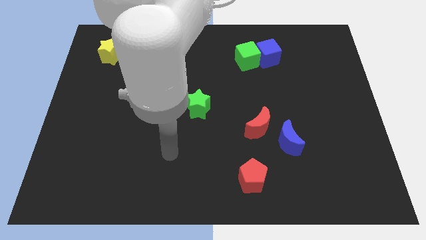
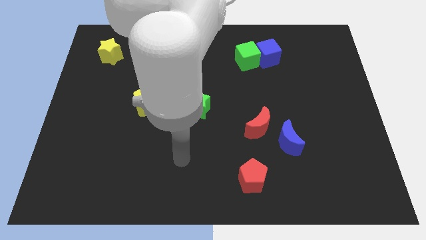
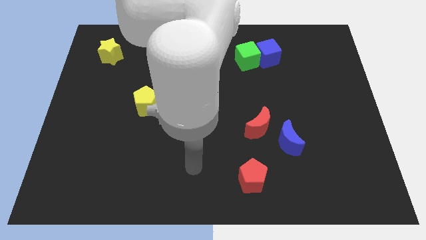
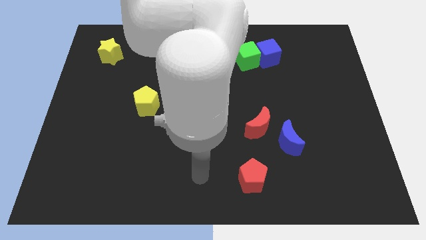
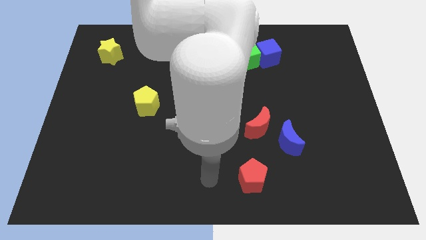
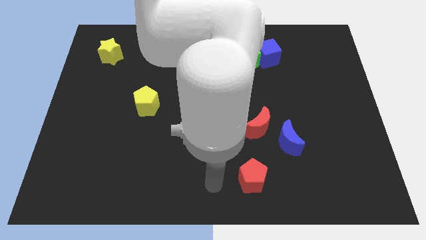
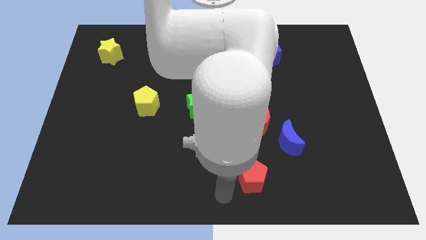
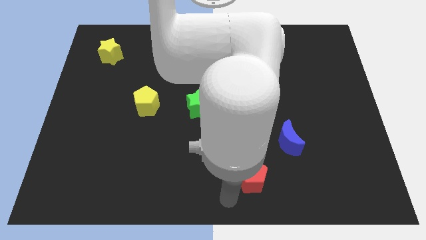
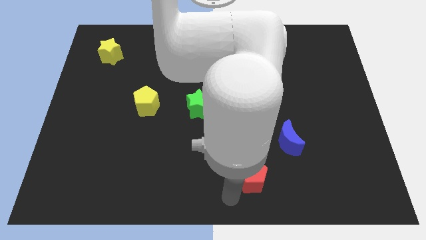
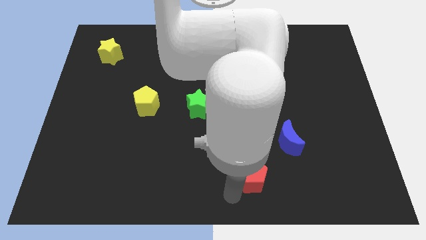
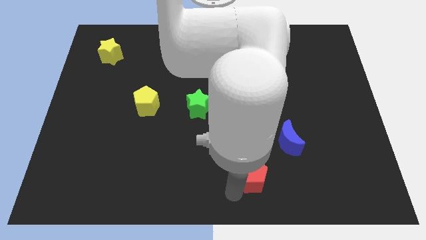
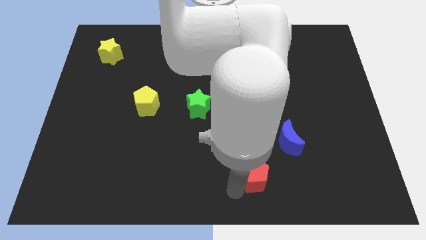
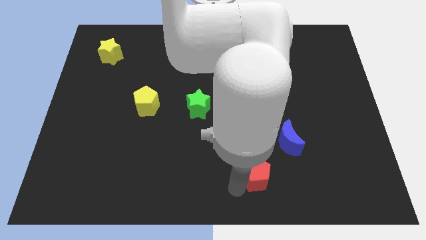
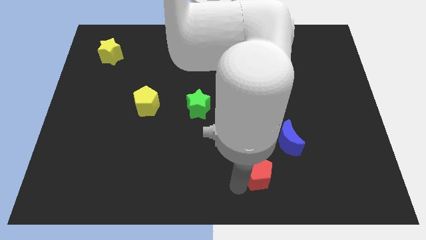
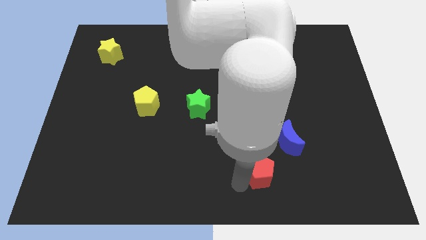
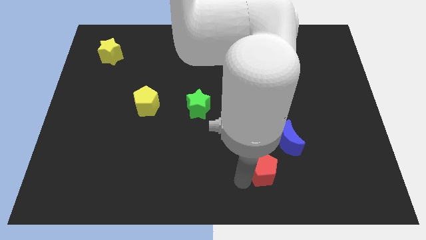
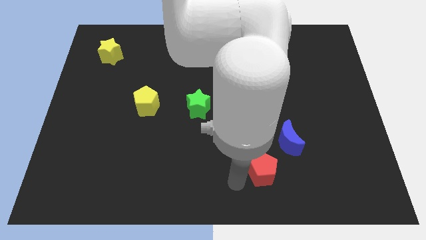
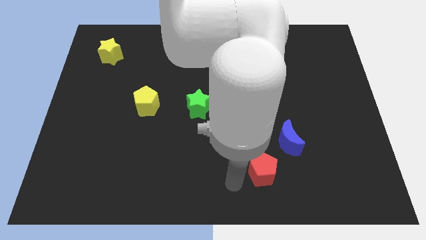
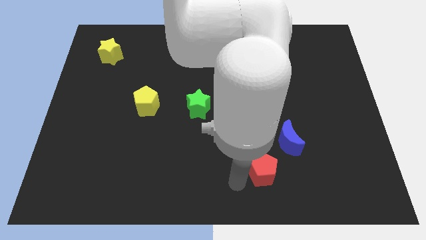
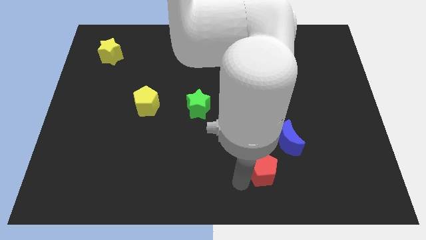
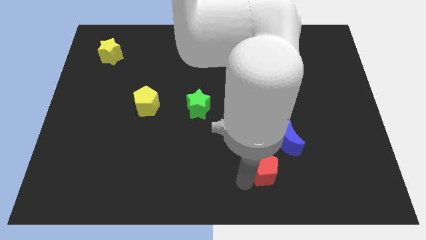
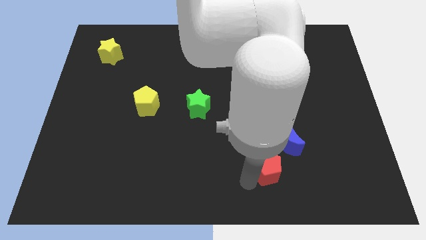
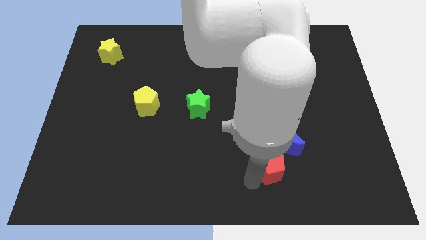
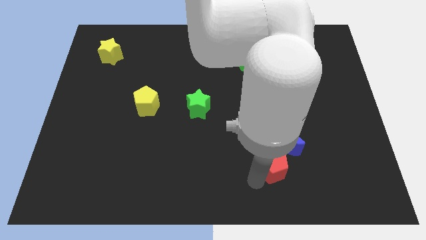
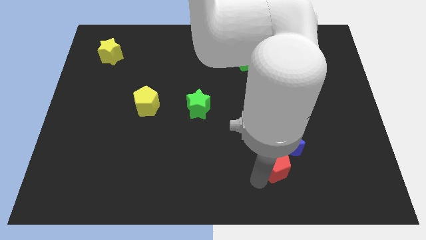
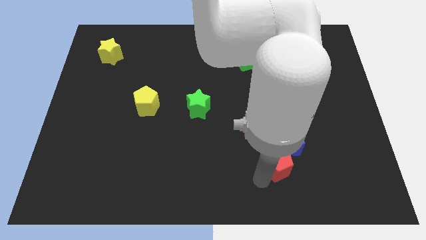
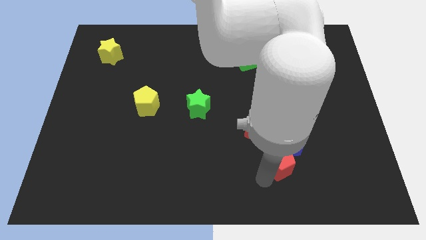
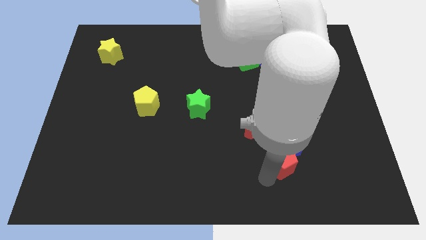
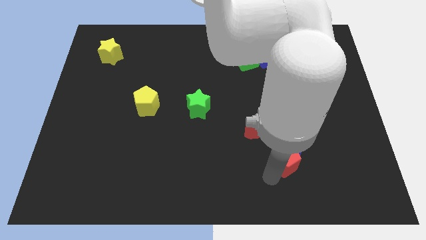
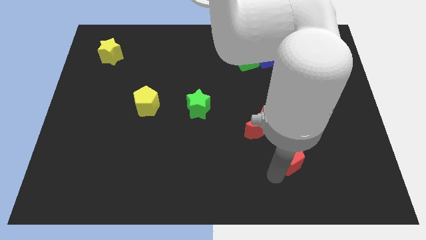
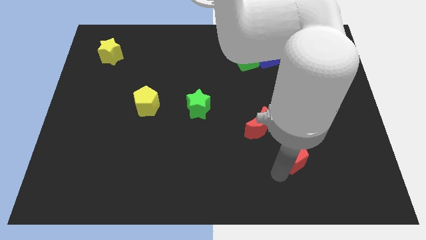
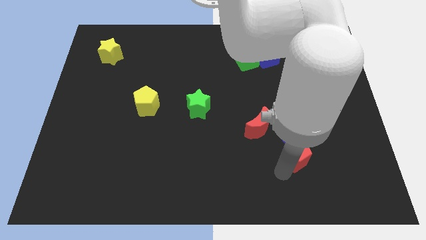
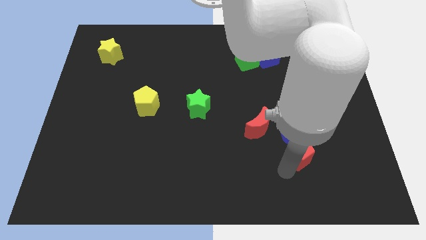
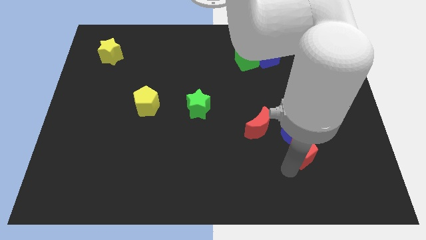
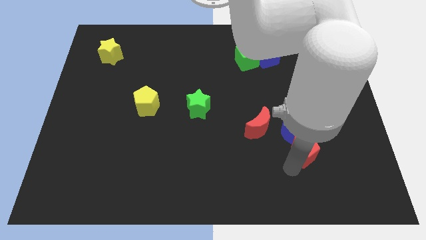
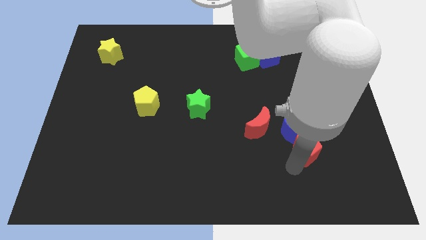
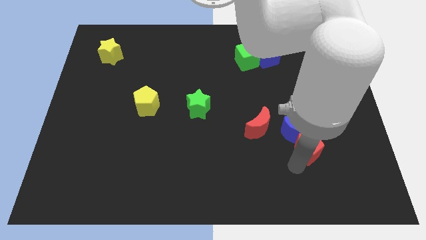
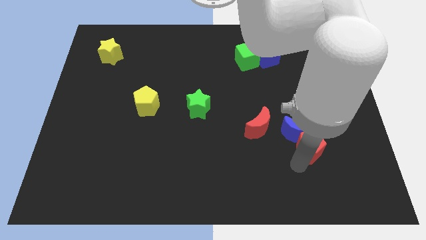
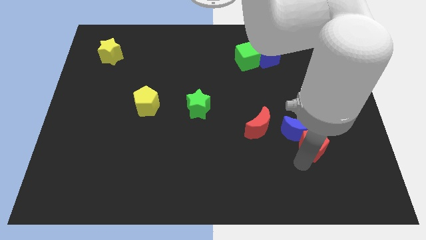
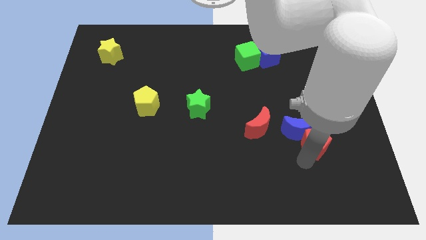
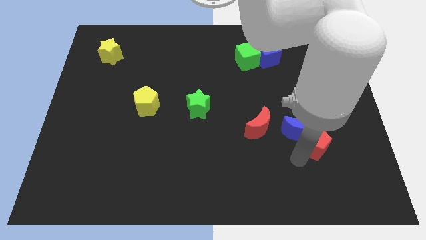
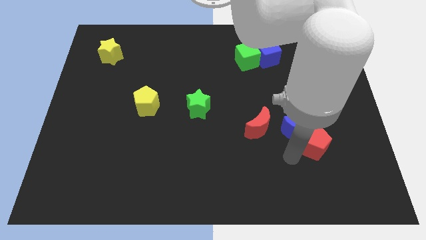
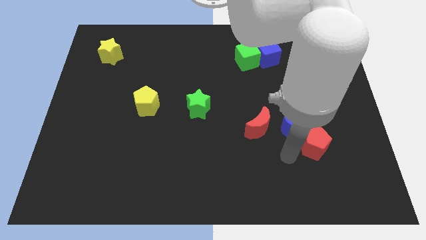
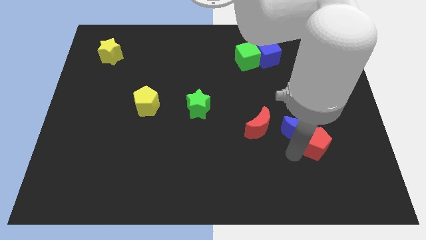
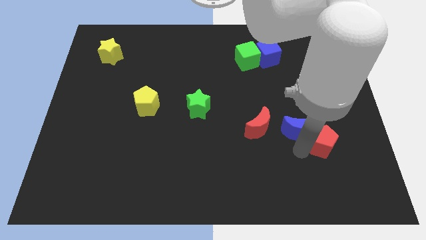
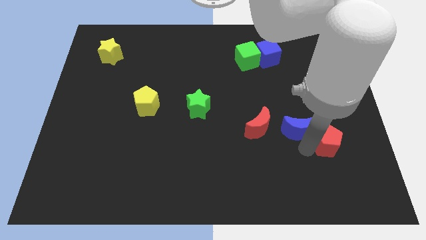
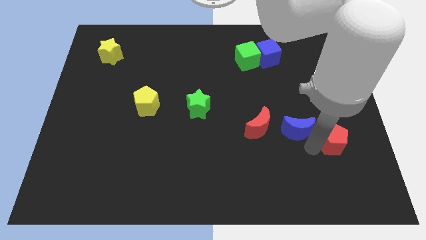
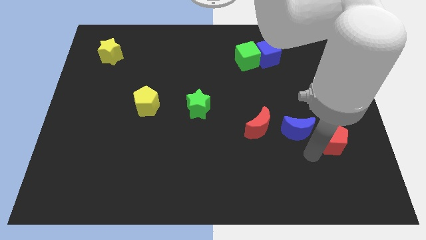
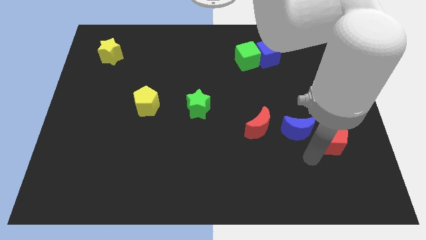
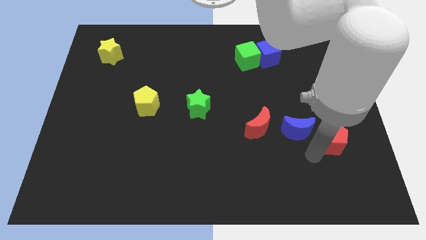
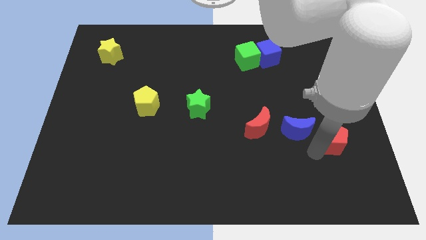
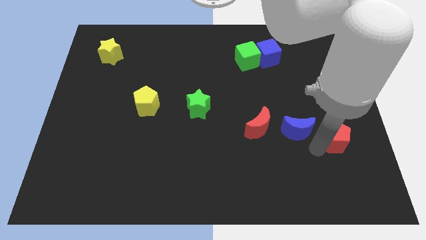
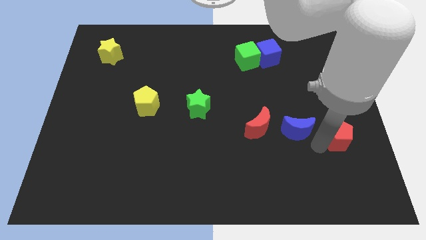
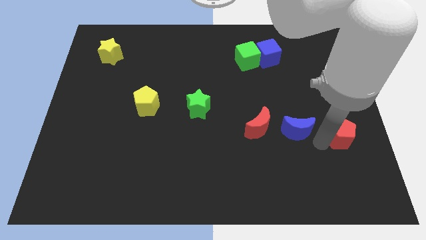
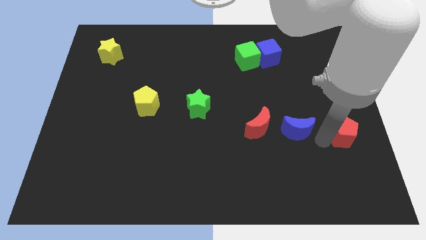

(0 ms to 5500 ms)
put the red pentagon to the right side
